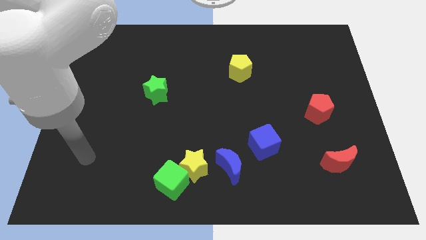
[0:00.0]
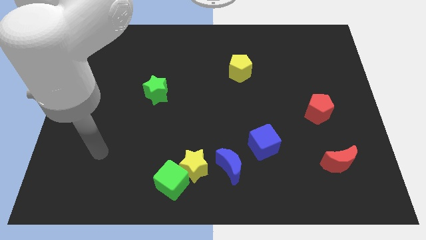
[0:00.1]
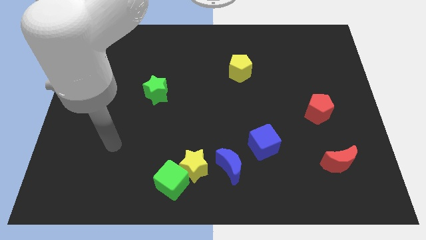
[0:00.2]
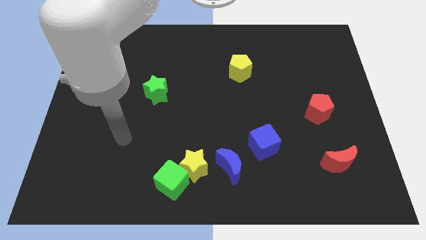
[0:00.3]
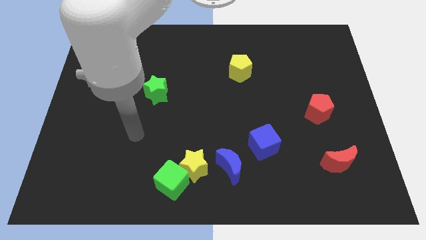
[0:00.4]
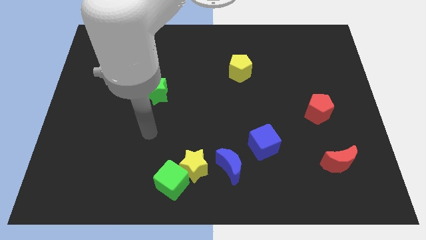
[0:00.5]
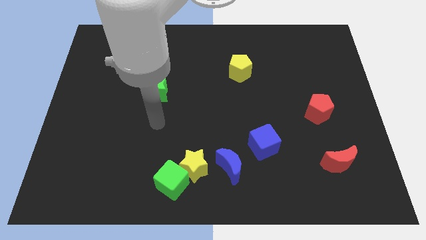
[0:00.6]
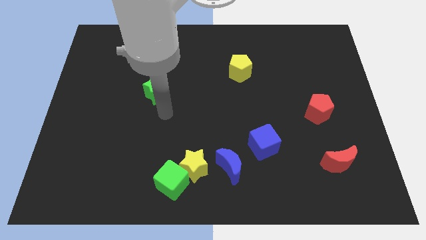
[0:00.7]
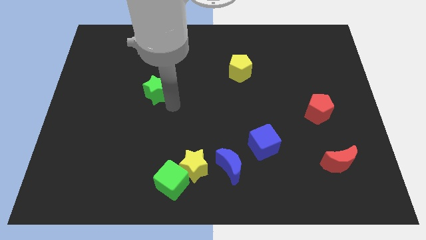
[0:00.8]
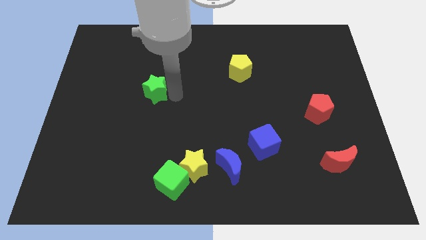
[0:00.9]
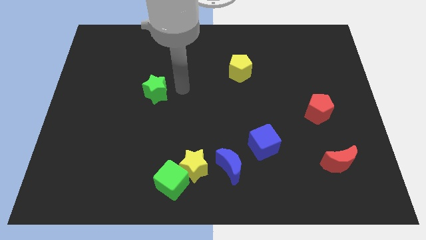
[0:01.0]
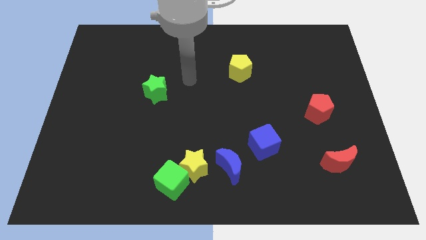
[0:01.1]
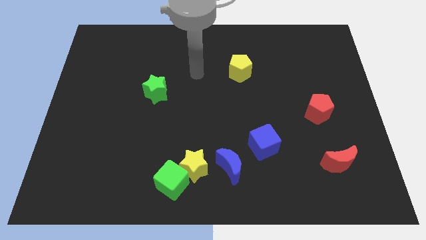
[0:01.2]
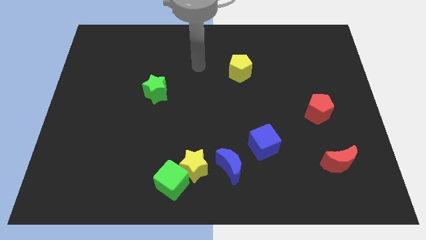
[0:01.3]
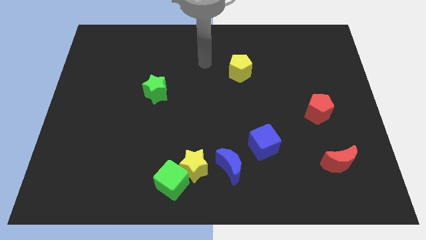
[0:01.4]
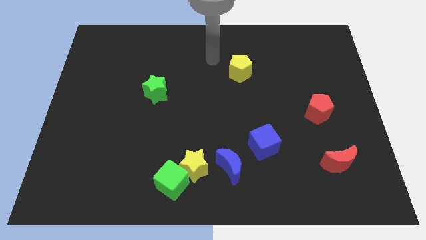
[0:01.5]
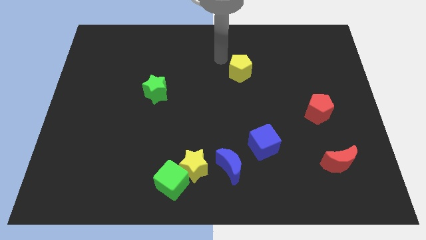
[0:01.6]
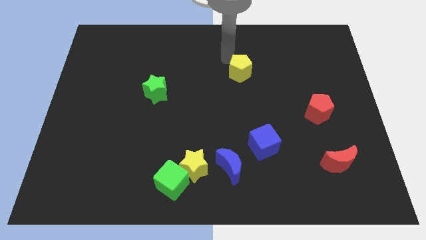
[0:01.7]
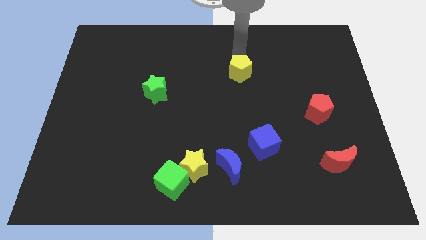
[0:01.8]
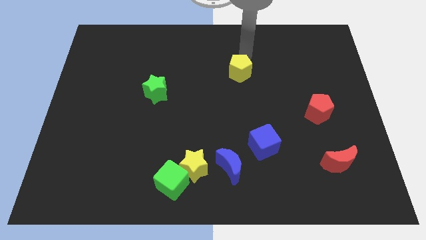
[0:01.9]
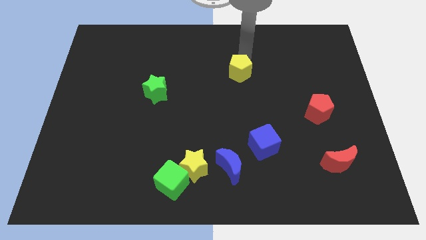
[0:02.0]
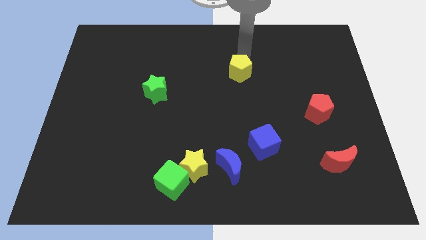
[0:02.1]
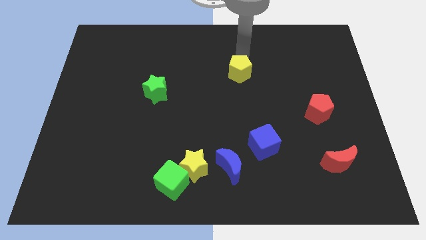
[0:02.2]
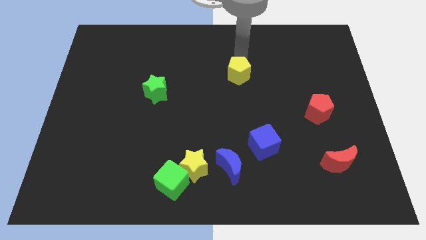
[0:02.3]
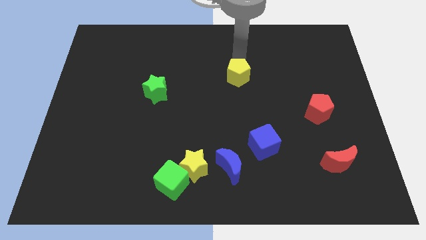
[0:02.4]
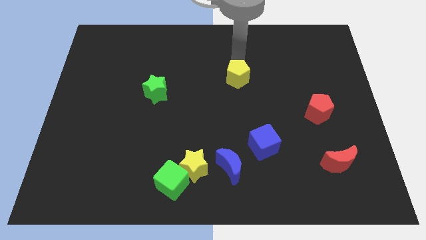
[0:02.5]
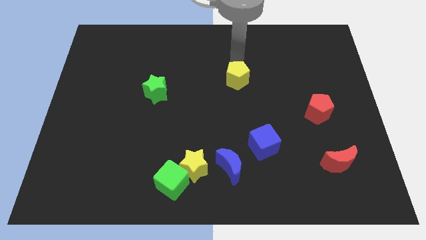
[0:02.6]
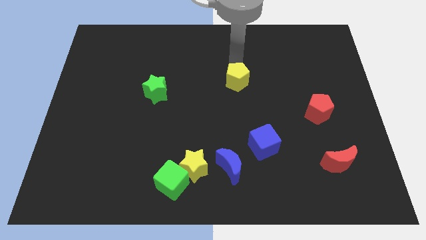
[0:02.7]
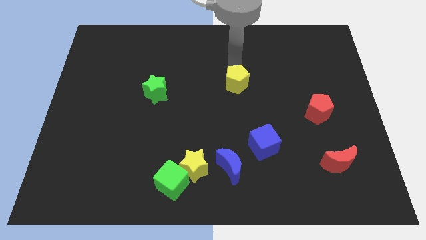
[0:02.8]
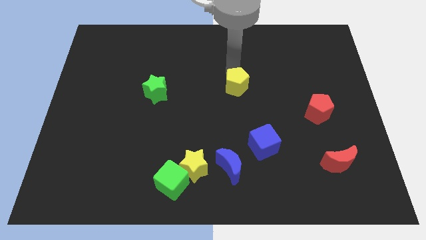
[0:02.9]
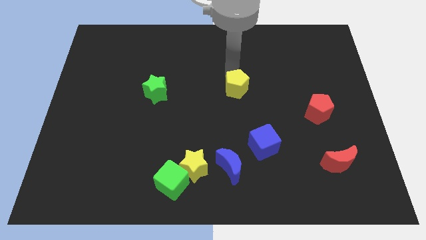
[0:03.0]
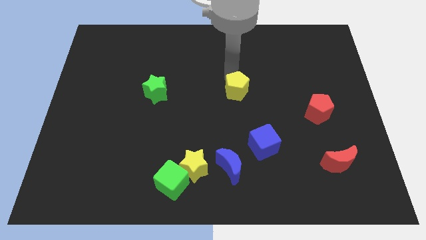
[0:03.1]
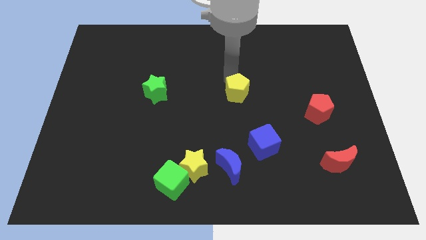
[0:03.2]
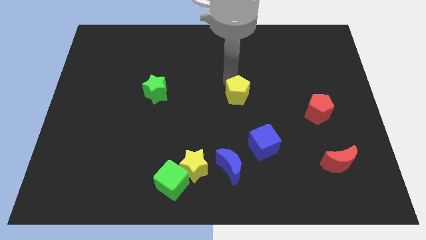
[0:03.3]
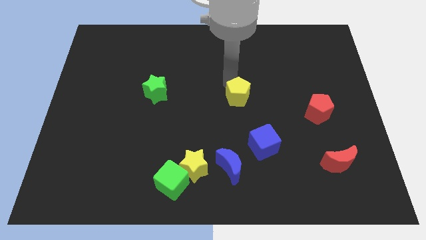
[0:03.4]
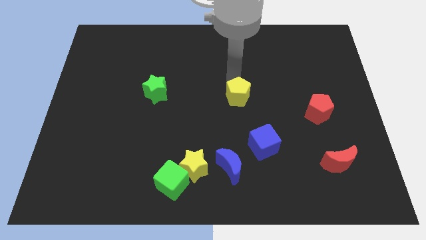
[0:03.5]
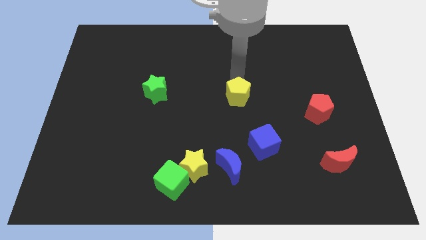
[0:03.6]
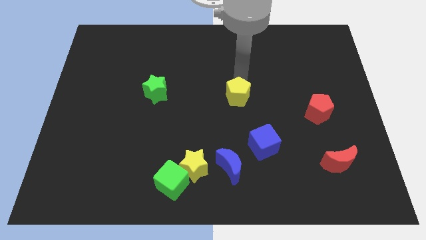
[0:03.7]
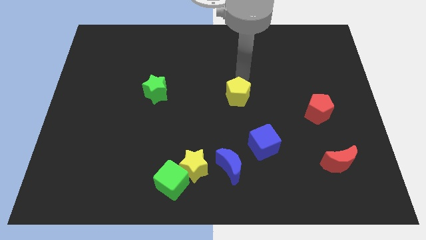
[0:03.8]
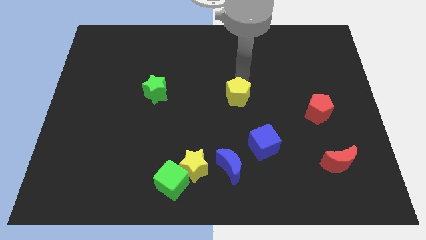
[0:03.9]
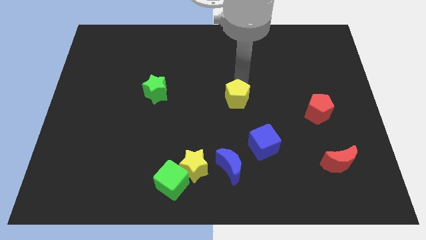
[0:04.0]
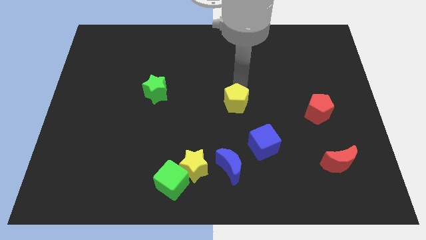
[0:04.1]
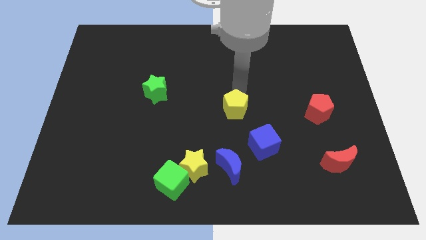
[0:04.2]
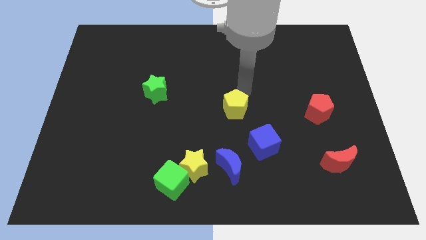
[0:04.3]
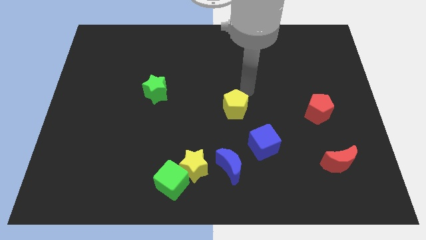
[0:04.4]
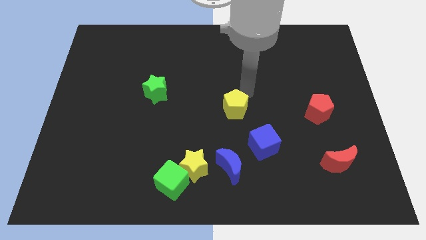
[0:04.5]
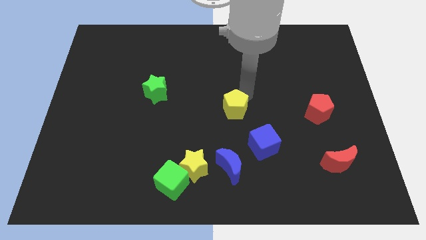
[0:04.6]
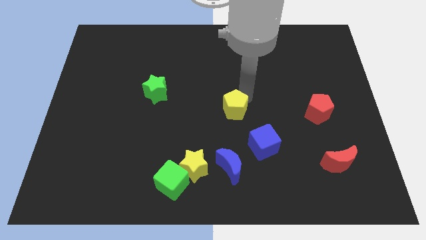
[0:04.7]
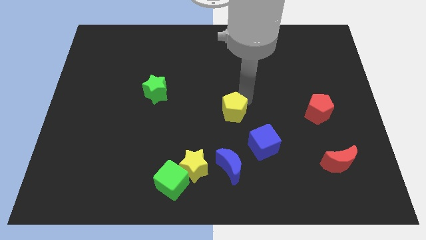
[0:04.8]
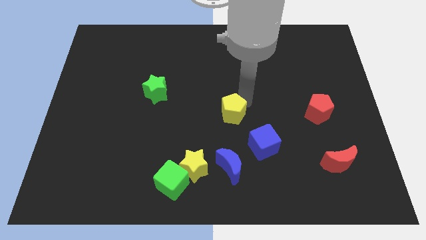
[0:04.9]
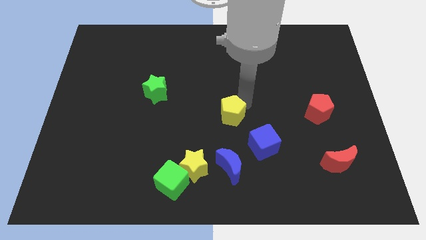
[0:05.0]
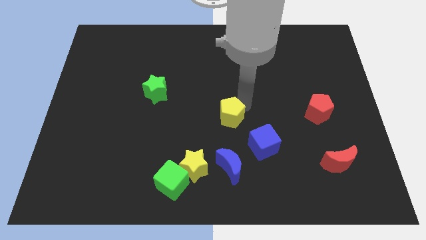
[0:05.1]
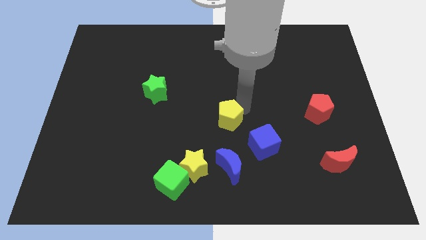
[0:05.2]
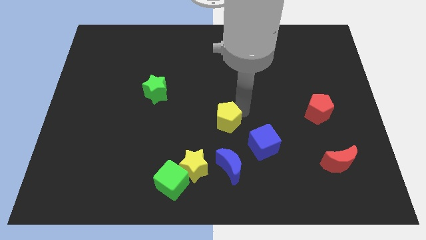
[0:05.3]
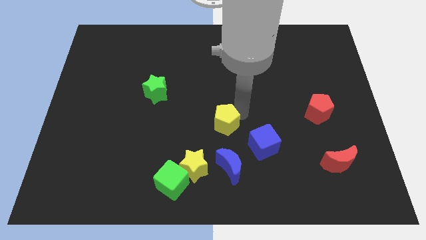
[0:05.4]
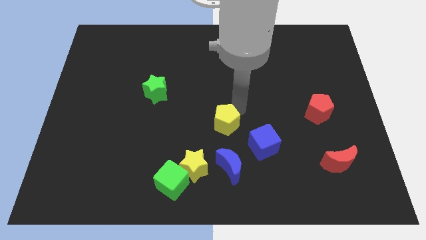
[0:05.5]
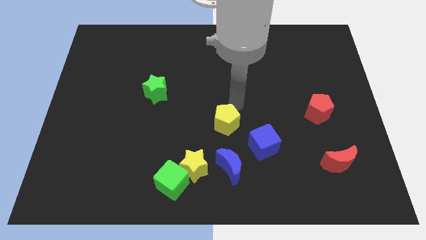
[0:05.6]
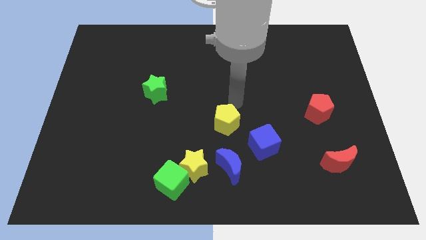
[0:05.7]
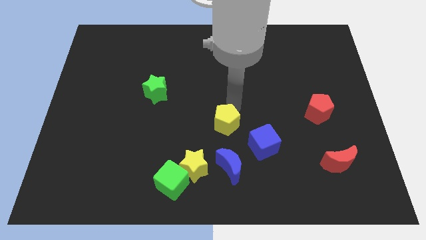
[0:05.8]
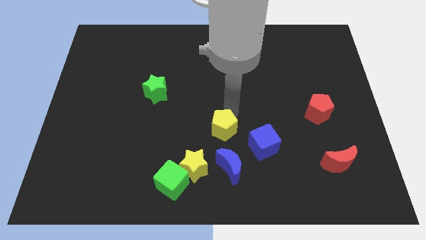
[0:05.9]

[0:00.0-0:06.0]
slide the yellow pentagon to the left side of the blue cube

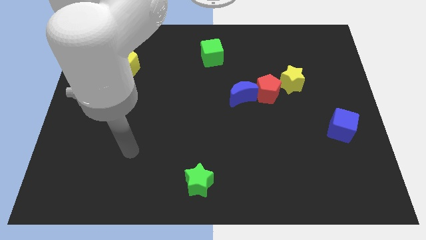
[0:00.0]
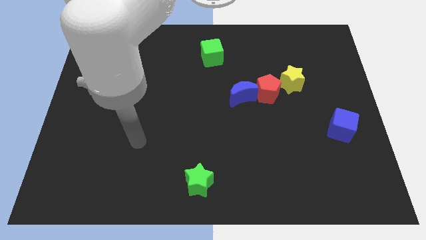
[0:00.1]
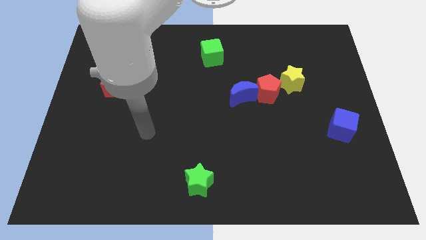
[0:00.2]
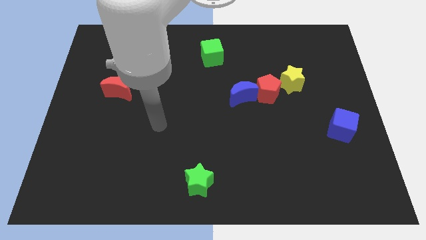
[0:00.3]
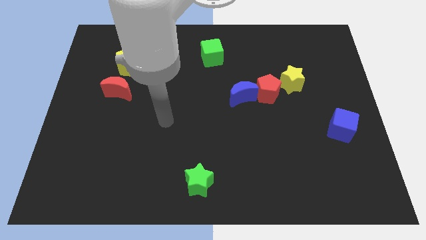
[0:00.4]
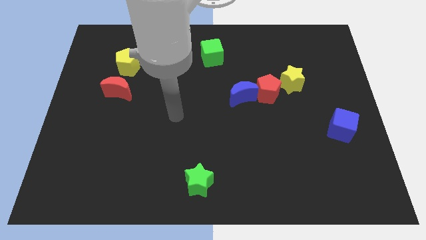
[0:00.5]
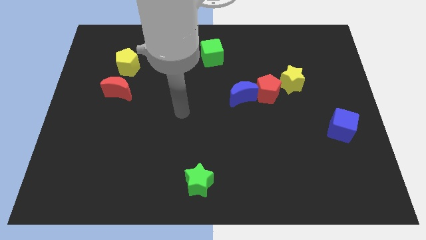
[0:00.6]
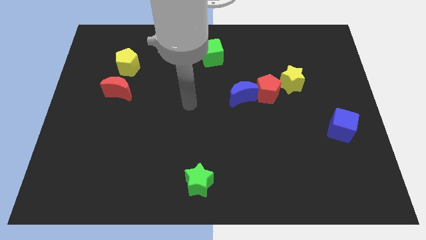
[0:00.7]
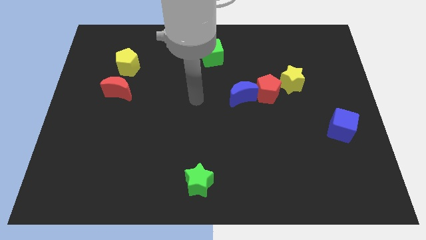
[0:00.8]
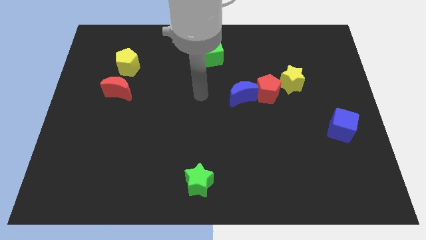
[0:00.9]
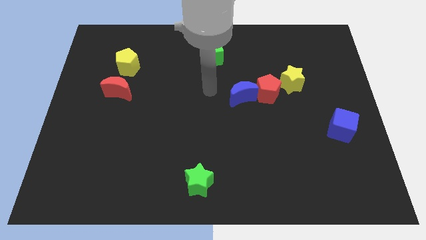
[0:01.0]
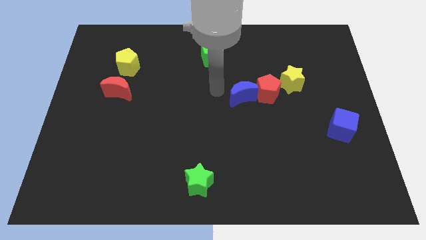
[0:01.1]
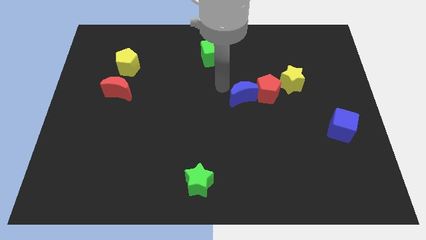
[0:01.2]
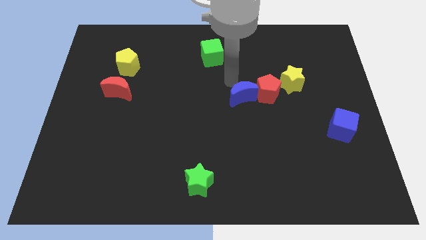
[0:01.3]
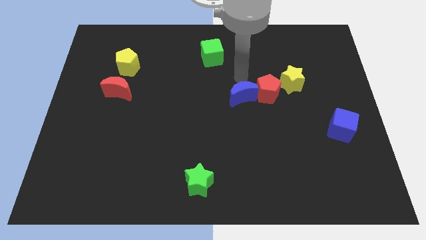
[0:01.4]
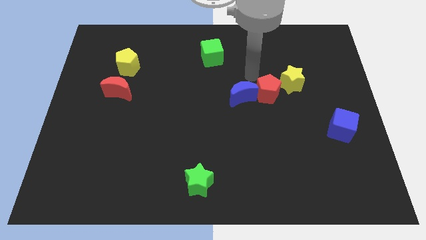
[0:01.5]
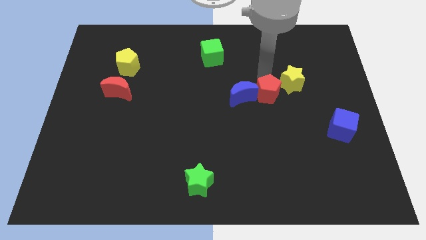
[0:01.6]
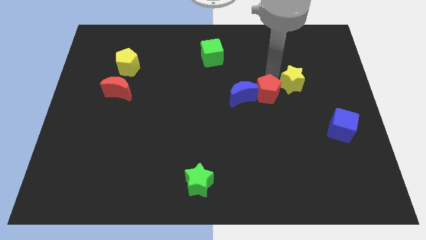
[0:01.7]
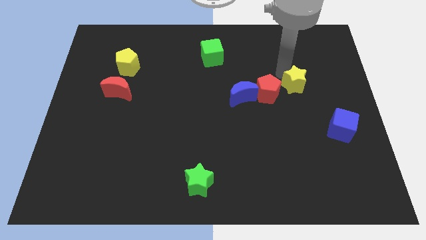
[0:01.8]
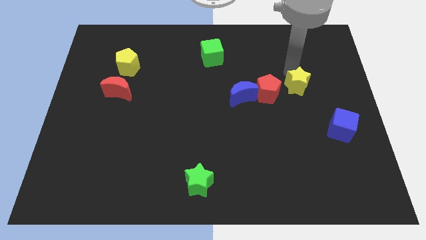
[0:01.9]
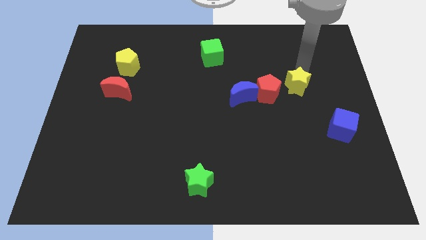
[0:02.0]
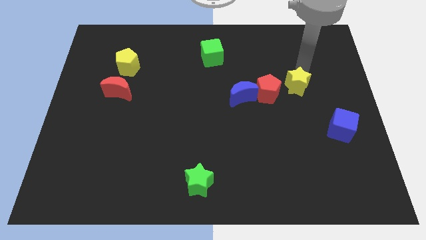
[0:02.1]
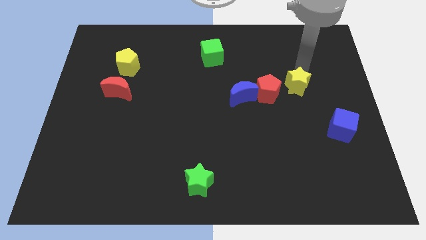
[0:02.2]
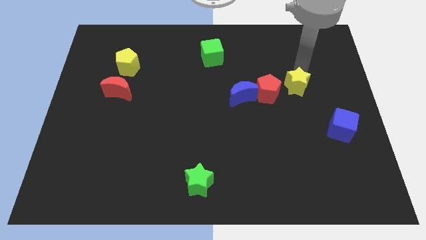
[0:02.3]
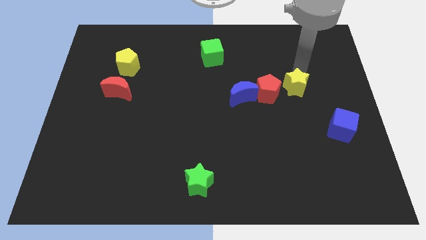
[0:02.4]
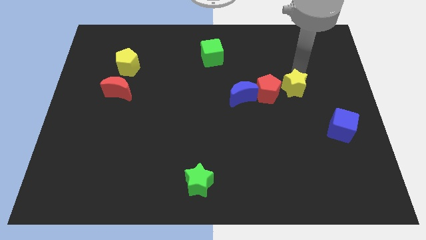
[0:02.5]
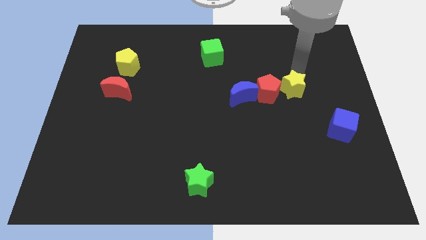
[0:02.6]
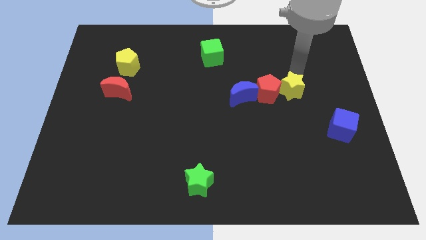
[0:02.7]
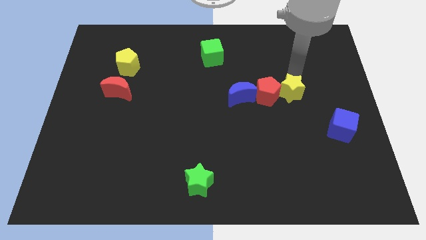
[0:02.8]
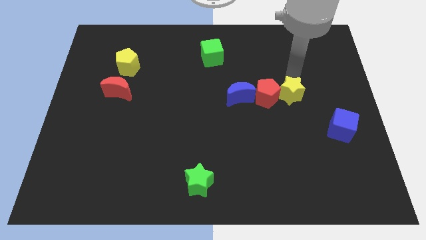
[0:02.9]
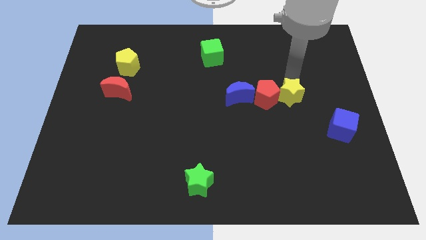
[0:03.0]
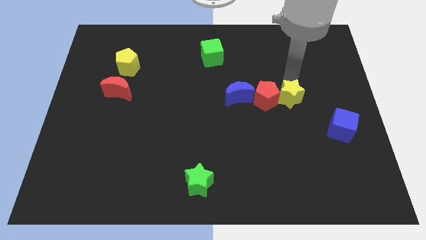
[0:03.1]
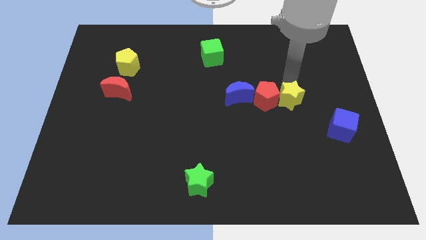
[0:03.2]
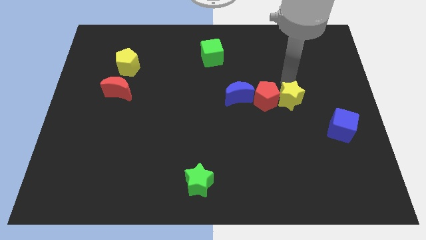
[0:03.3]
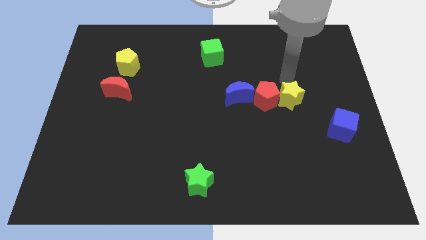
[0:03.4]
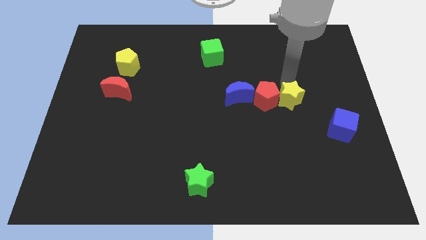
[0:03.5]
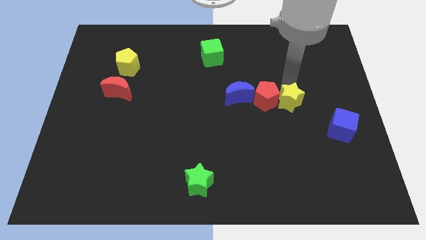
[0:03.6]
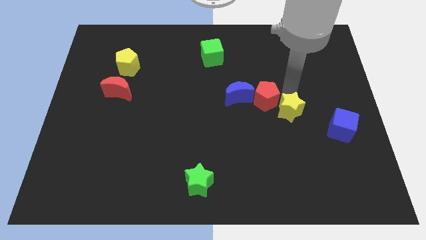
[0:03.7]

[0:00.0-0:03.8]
push the yellow star left of the blue cube
